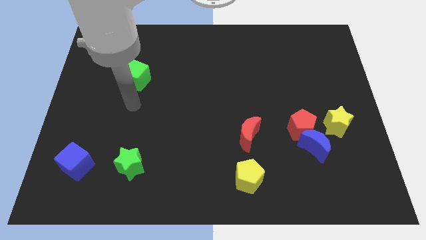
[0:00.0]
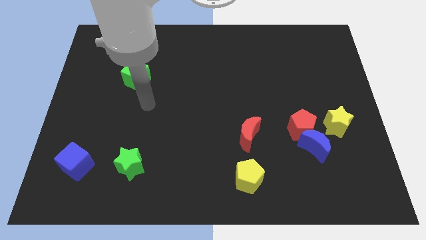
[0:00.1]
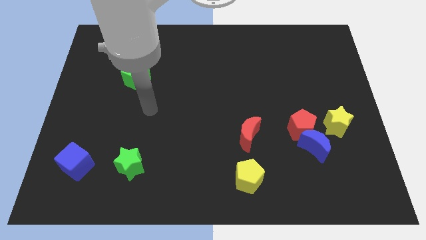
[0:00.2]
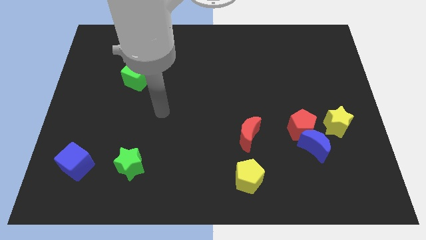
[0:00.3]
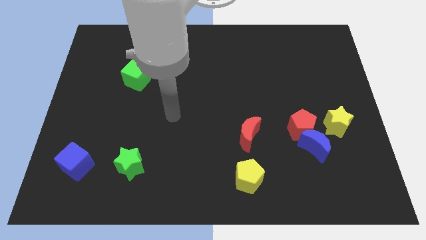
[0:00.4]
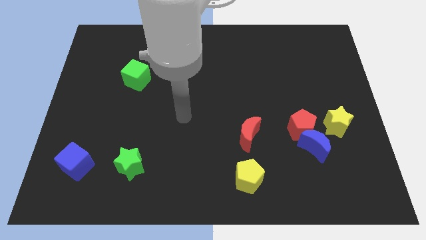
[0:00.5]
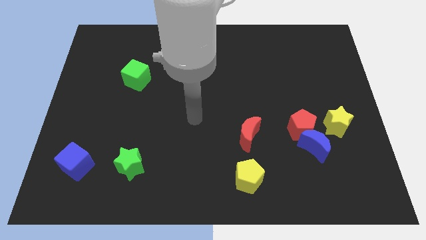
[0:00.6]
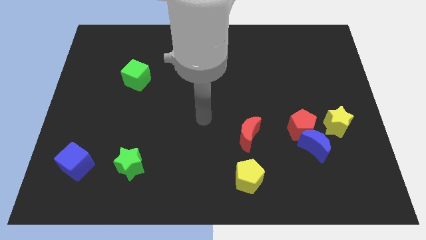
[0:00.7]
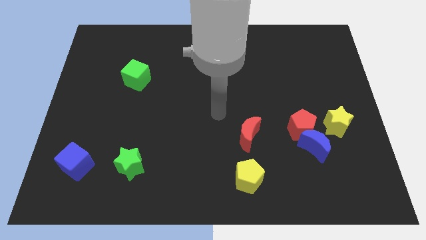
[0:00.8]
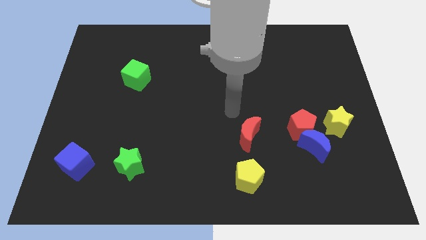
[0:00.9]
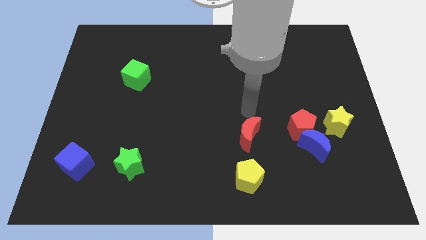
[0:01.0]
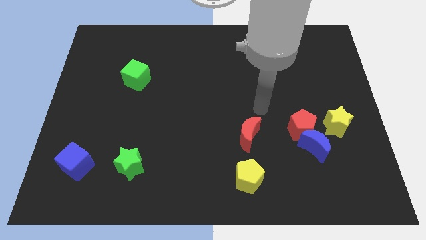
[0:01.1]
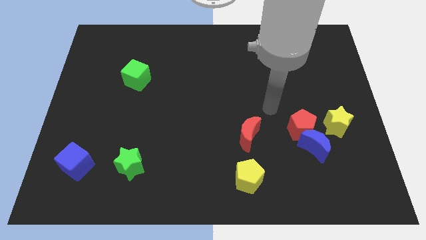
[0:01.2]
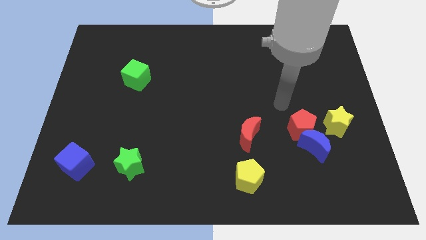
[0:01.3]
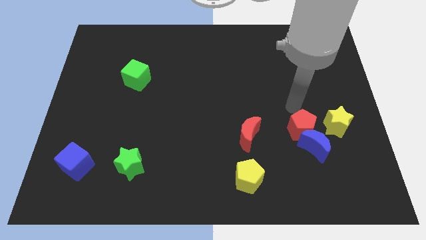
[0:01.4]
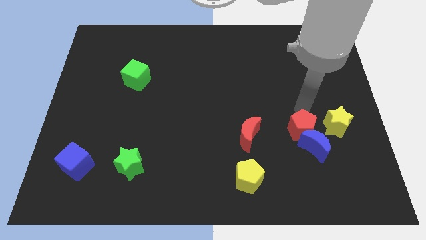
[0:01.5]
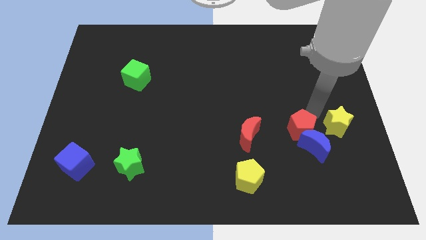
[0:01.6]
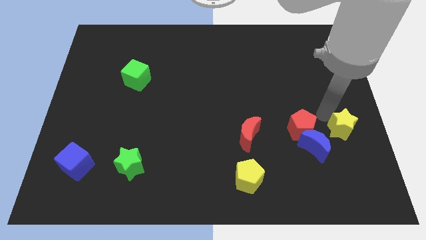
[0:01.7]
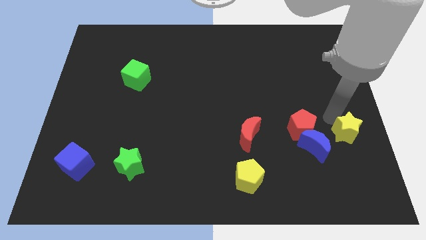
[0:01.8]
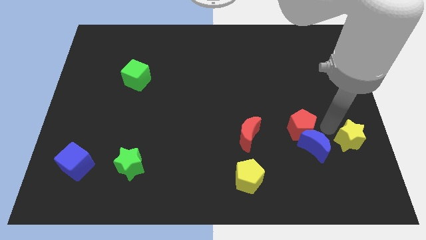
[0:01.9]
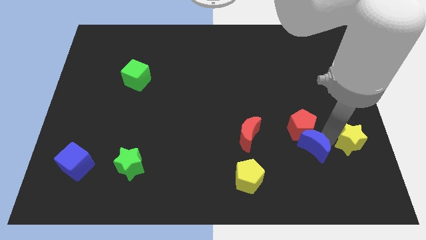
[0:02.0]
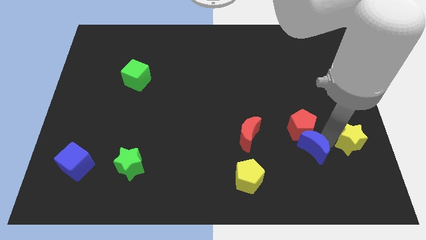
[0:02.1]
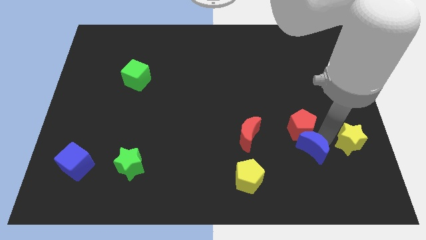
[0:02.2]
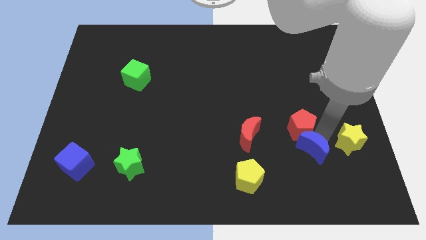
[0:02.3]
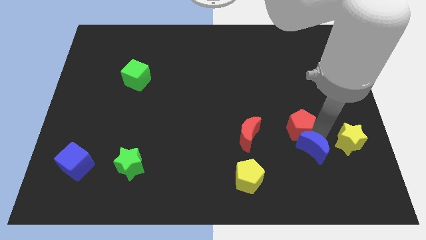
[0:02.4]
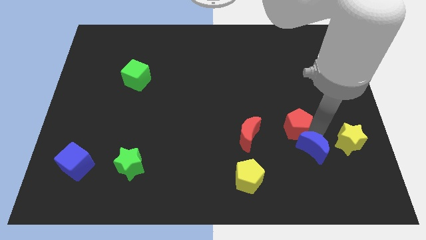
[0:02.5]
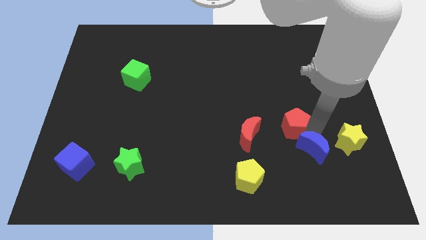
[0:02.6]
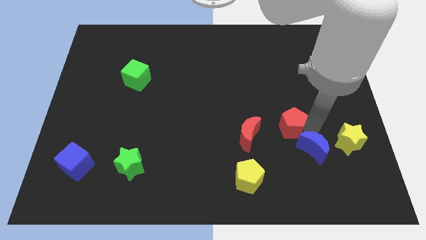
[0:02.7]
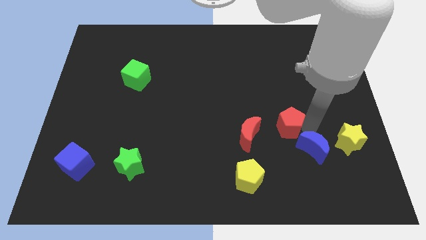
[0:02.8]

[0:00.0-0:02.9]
move the red pentagon away from the blue moon and yellow star

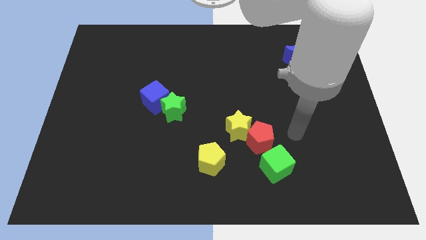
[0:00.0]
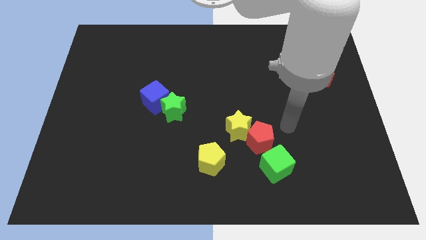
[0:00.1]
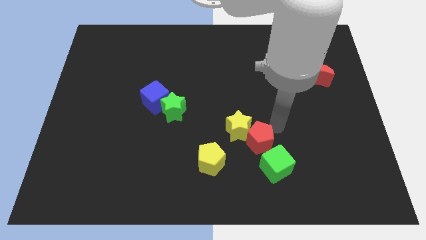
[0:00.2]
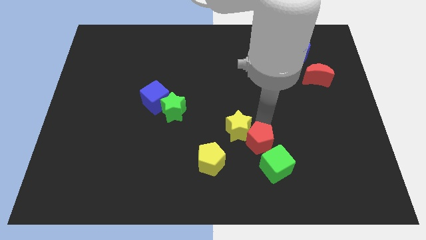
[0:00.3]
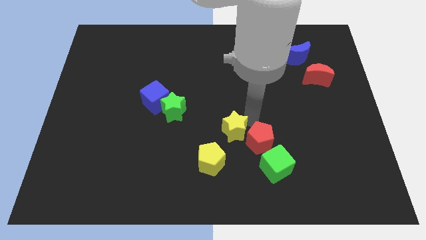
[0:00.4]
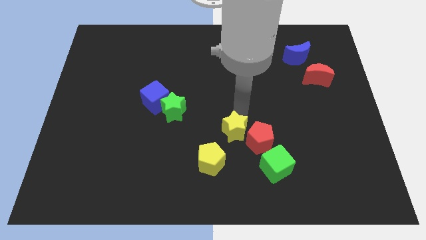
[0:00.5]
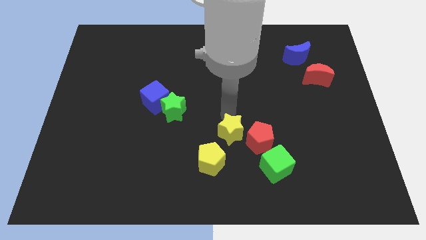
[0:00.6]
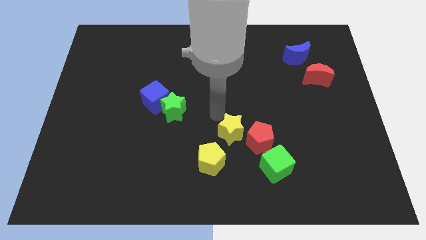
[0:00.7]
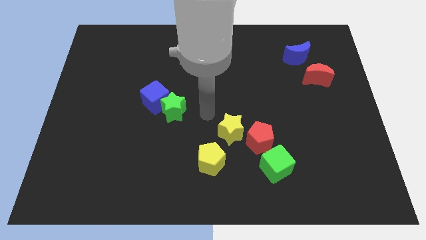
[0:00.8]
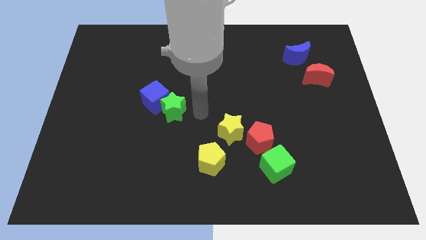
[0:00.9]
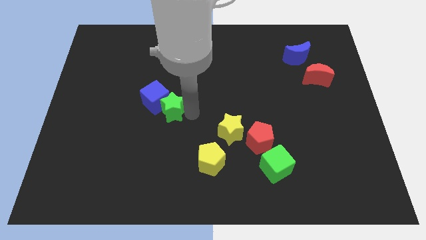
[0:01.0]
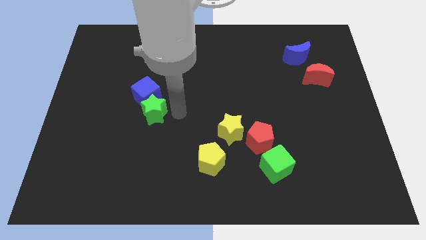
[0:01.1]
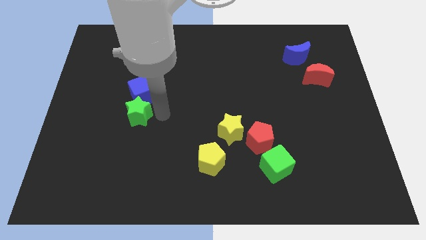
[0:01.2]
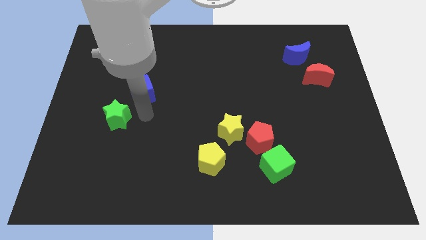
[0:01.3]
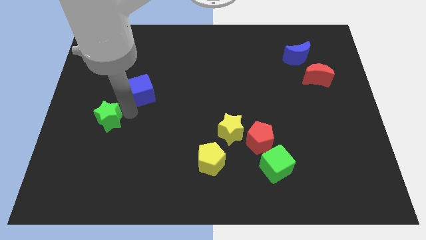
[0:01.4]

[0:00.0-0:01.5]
move the blue cube away from the green star

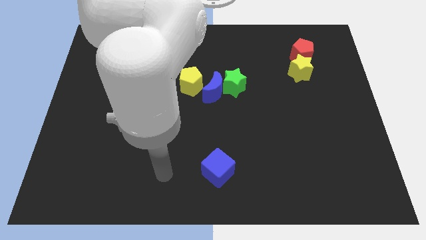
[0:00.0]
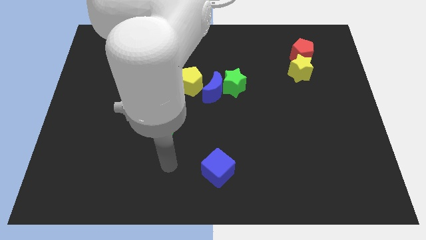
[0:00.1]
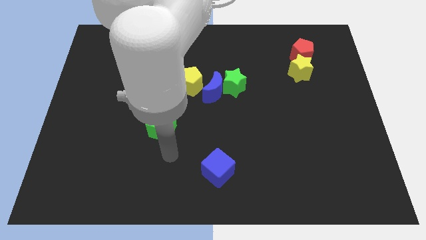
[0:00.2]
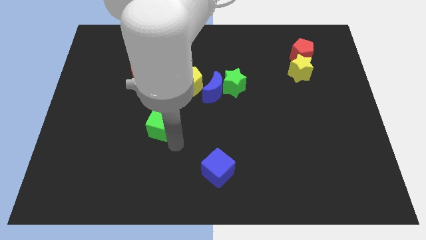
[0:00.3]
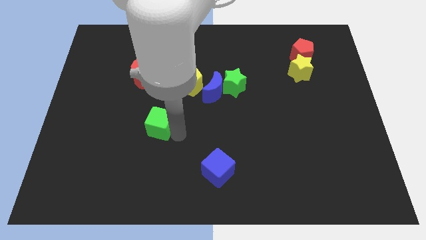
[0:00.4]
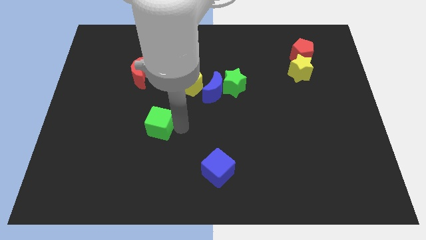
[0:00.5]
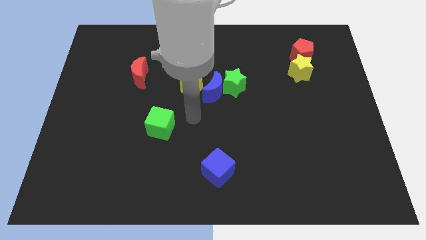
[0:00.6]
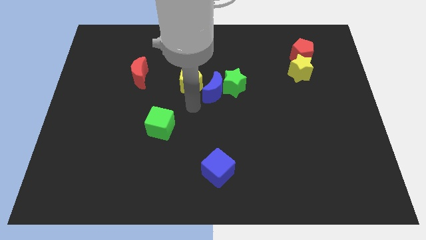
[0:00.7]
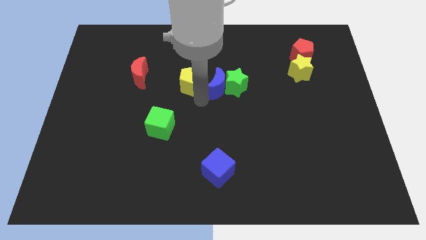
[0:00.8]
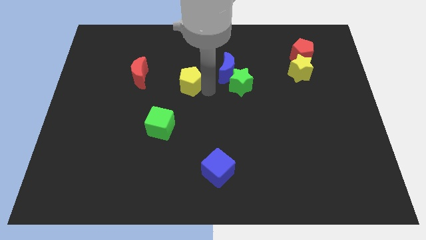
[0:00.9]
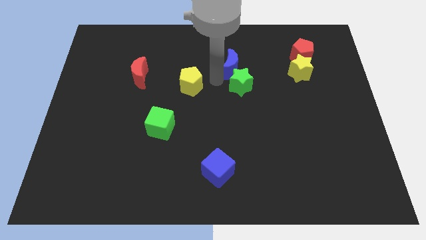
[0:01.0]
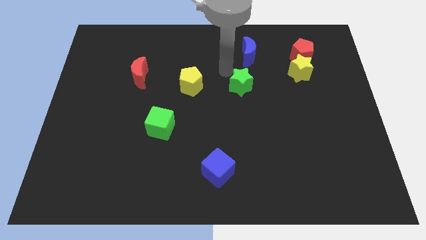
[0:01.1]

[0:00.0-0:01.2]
pull the green star apart from the blue moon

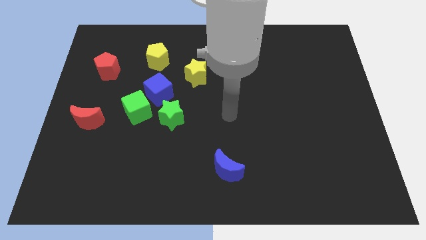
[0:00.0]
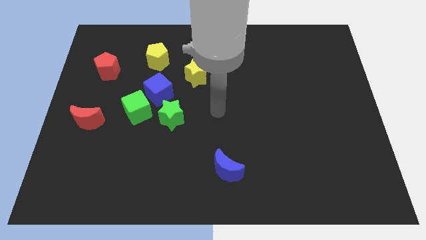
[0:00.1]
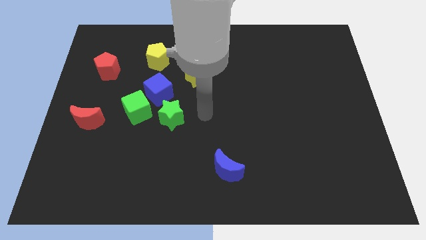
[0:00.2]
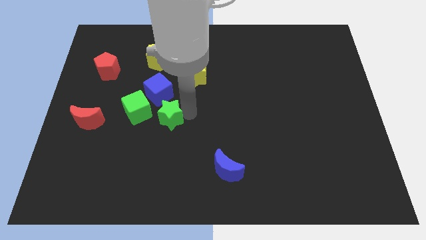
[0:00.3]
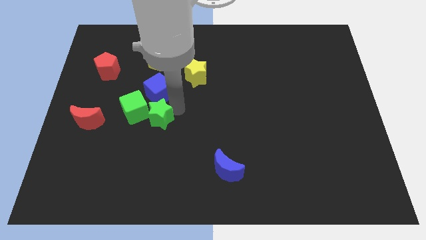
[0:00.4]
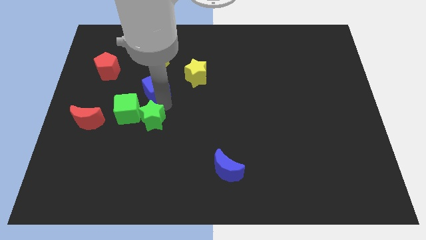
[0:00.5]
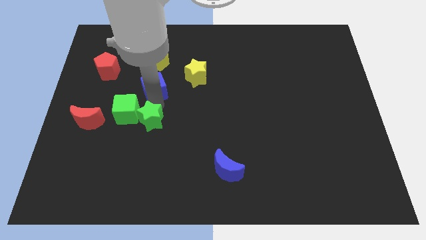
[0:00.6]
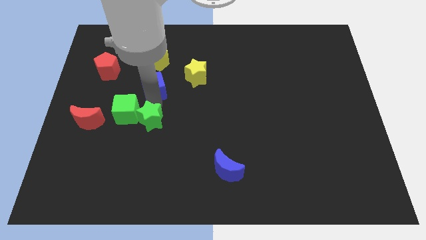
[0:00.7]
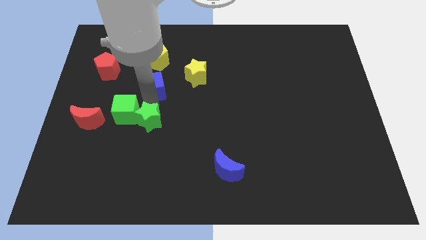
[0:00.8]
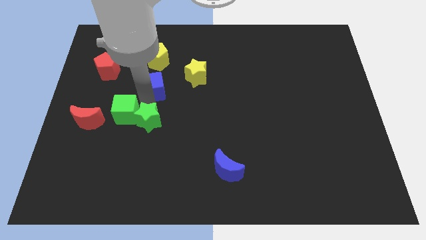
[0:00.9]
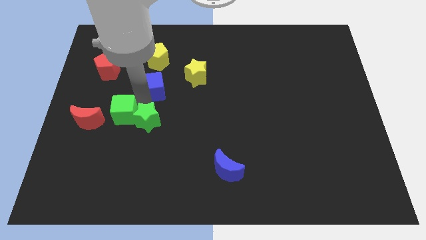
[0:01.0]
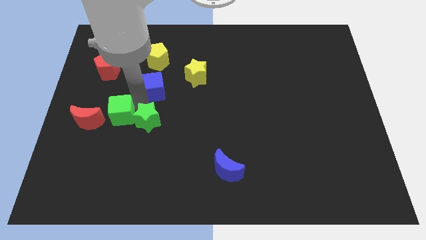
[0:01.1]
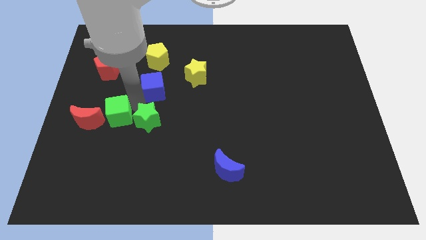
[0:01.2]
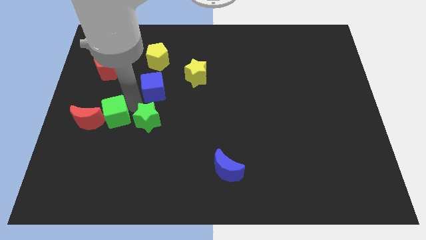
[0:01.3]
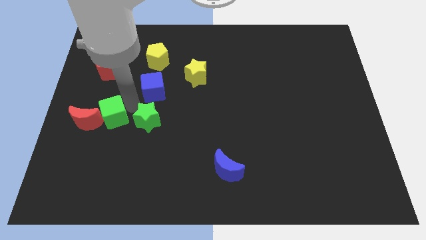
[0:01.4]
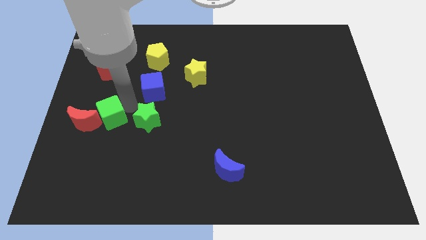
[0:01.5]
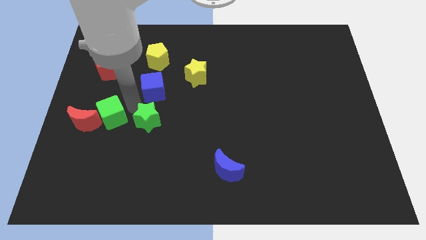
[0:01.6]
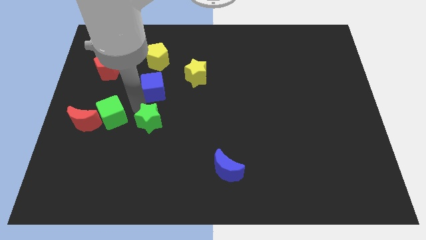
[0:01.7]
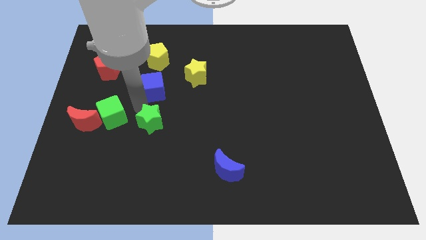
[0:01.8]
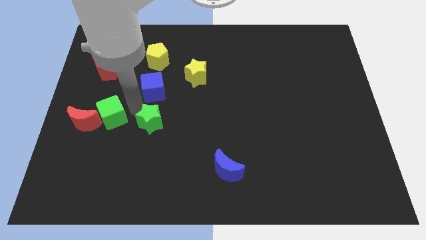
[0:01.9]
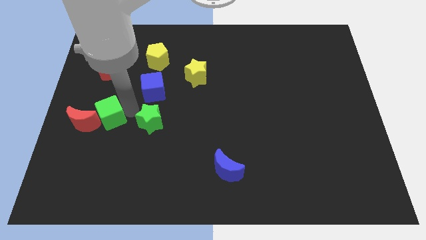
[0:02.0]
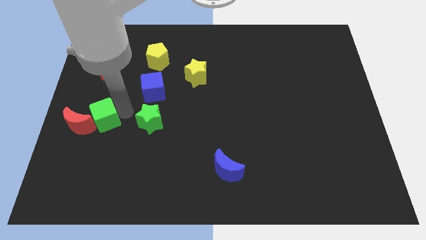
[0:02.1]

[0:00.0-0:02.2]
move the green cube away from the blue cube and green star

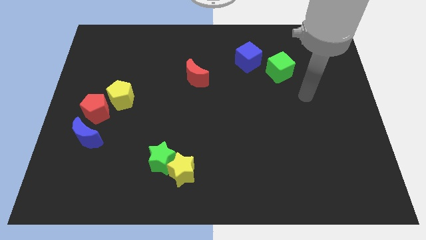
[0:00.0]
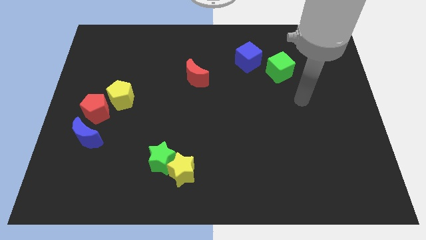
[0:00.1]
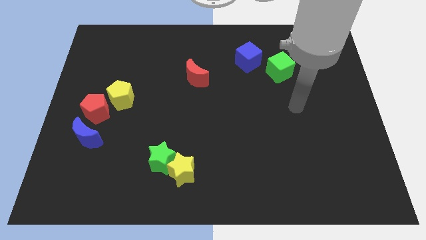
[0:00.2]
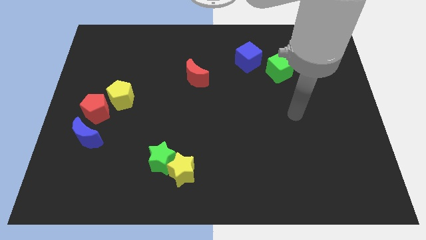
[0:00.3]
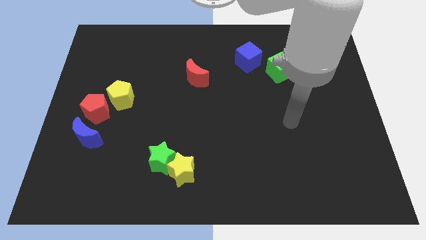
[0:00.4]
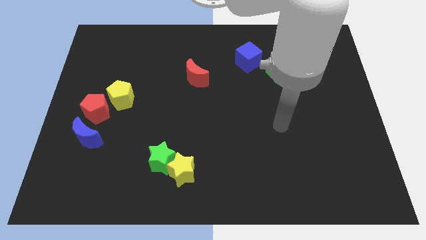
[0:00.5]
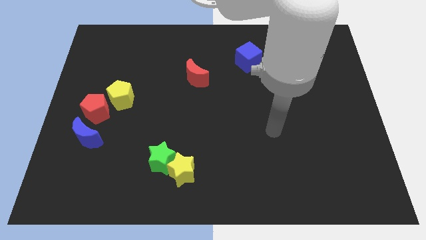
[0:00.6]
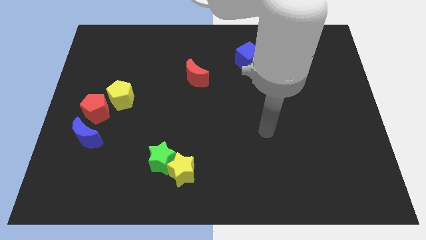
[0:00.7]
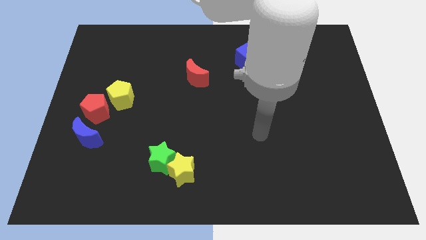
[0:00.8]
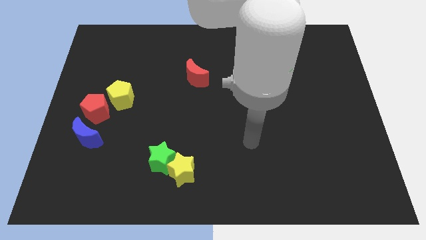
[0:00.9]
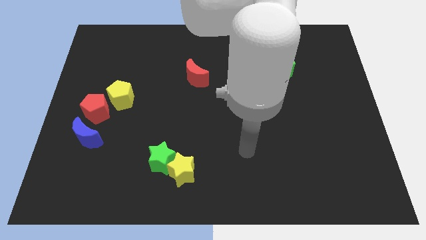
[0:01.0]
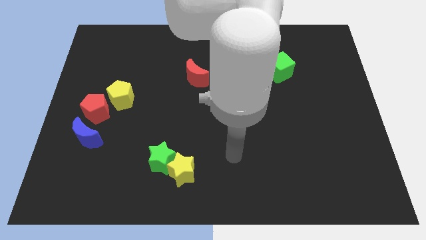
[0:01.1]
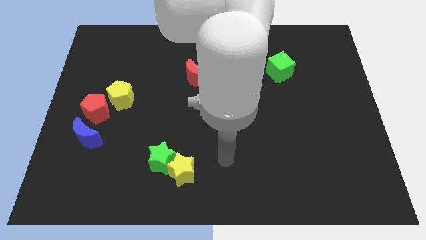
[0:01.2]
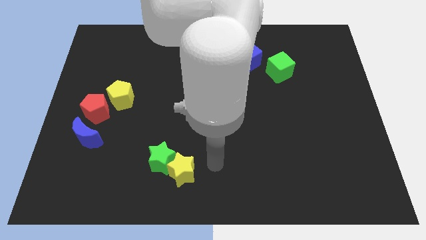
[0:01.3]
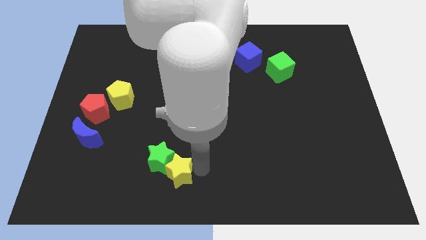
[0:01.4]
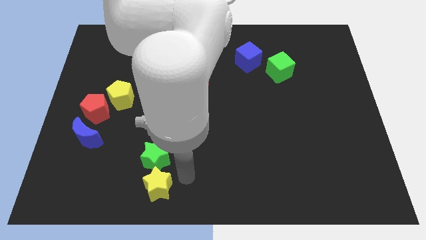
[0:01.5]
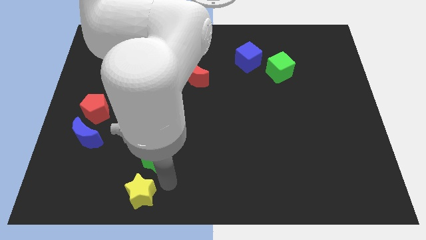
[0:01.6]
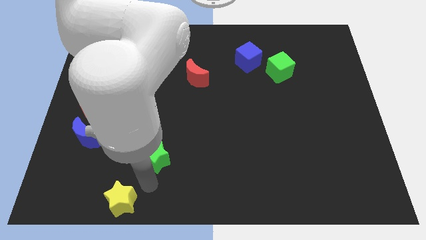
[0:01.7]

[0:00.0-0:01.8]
pull the green star apart from the yellow star
